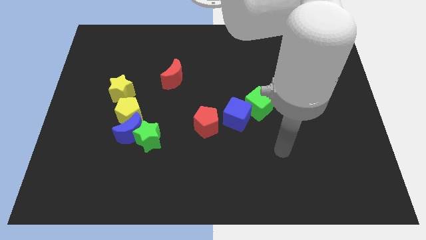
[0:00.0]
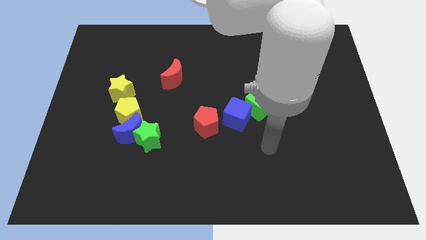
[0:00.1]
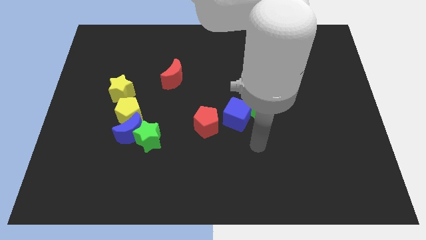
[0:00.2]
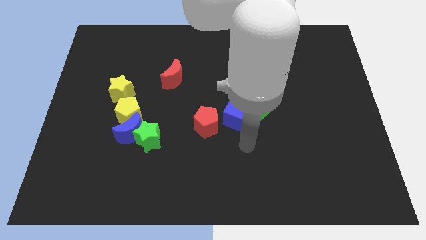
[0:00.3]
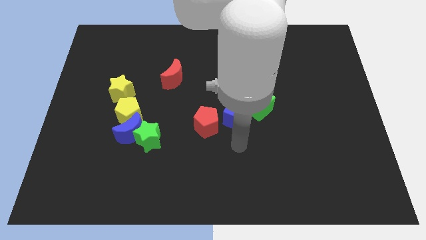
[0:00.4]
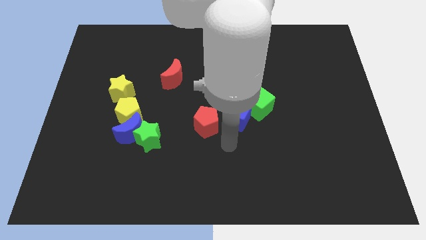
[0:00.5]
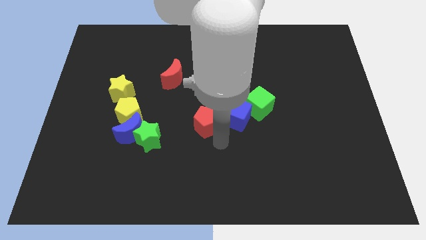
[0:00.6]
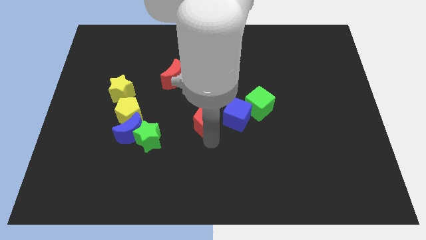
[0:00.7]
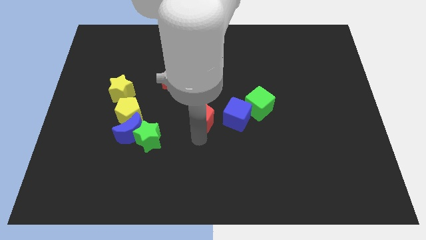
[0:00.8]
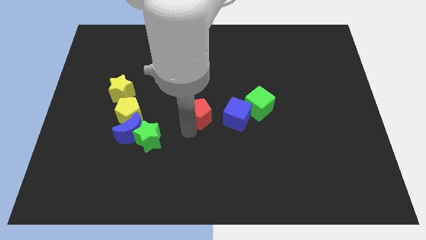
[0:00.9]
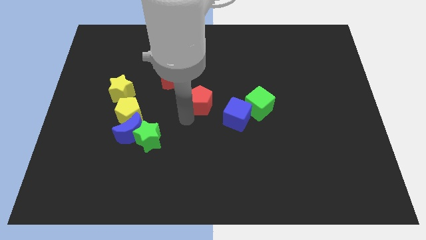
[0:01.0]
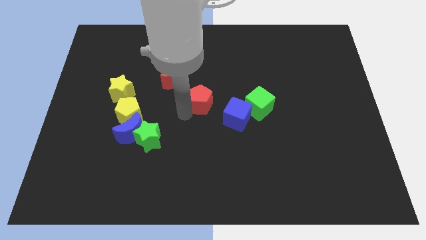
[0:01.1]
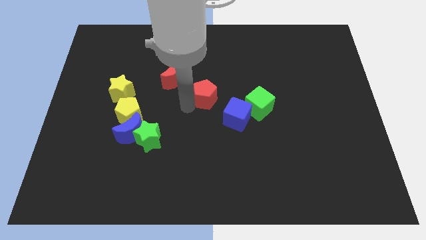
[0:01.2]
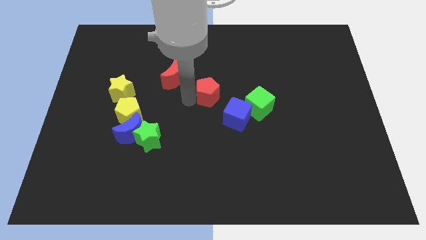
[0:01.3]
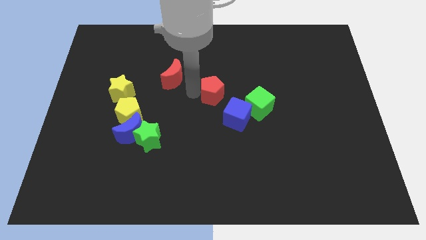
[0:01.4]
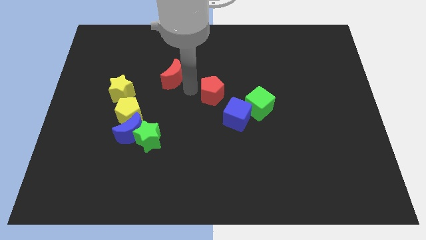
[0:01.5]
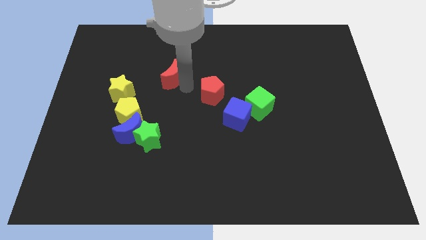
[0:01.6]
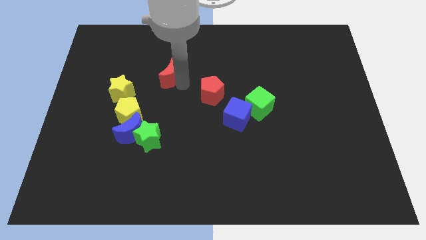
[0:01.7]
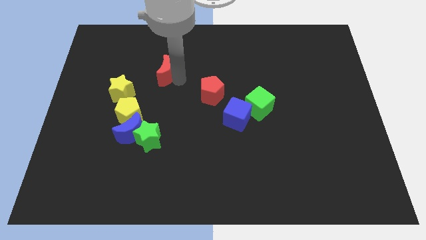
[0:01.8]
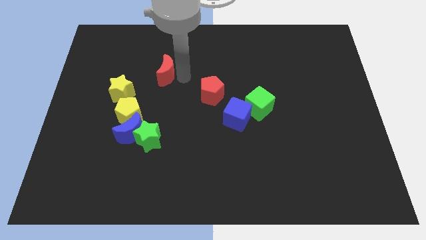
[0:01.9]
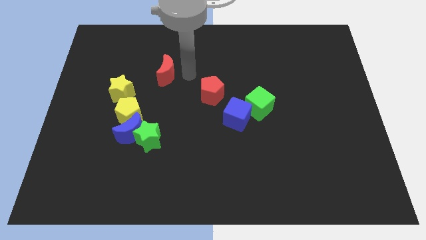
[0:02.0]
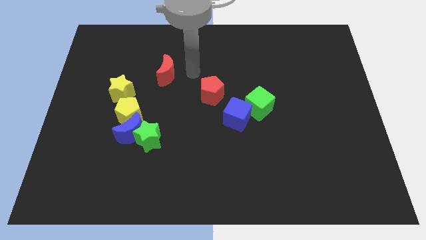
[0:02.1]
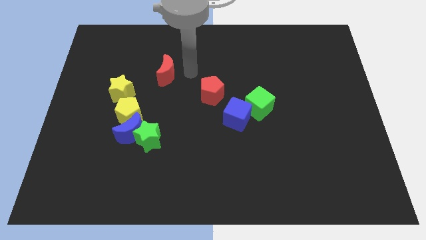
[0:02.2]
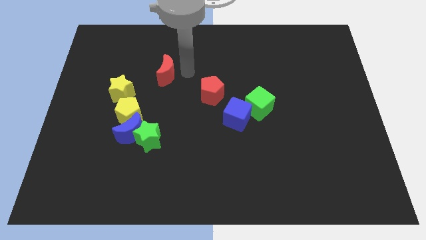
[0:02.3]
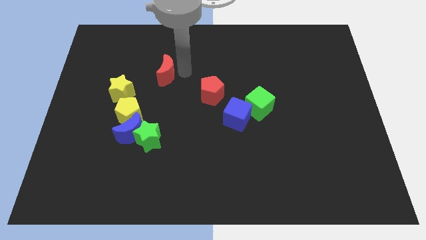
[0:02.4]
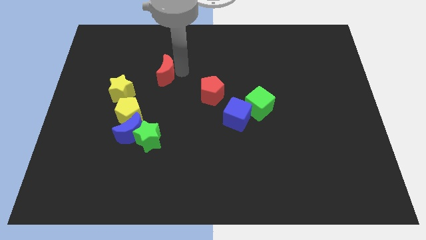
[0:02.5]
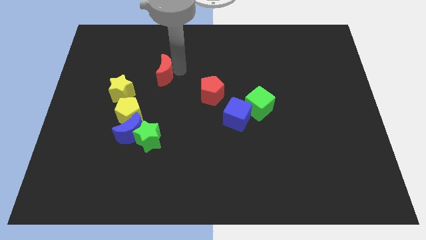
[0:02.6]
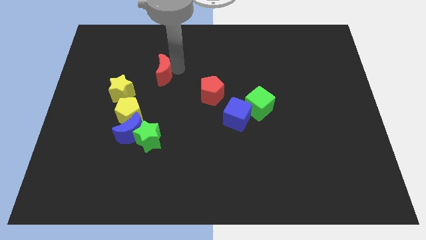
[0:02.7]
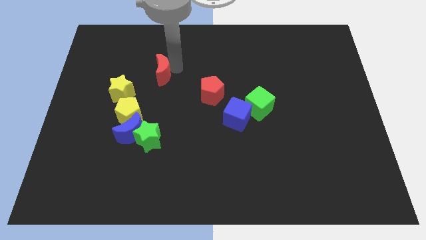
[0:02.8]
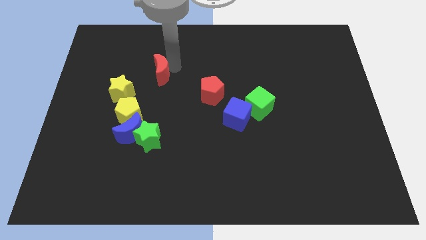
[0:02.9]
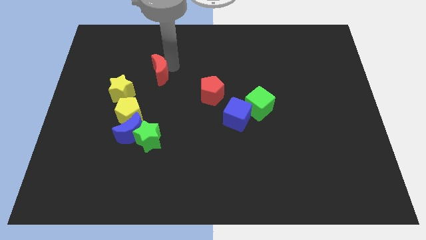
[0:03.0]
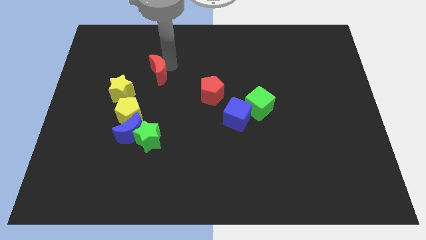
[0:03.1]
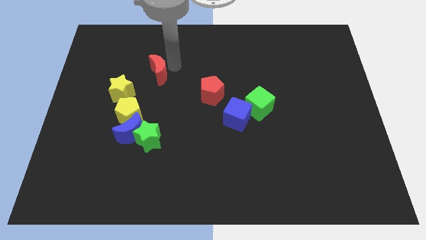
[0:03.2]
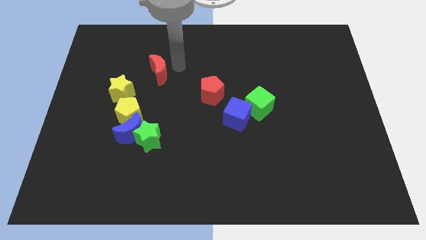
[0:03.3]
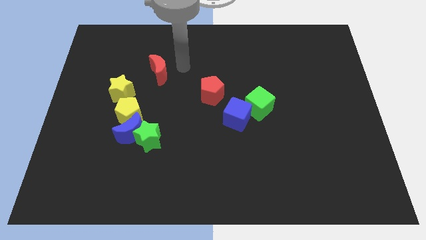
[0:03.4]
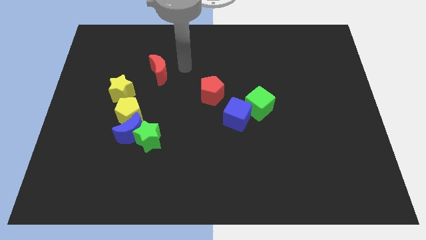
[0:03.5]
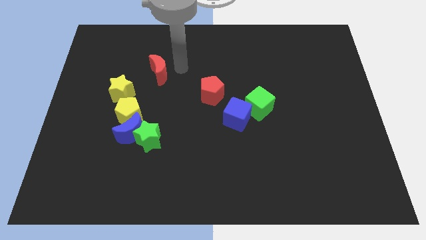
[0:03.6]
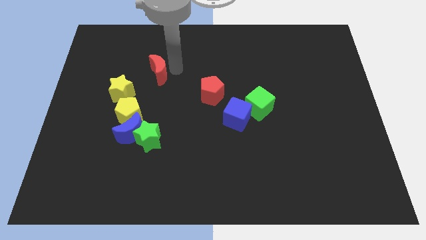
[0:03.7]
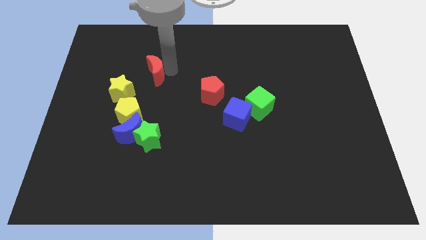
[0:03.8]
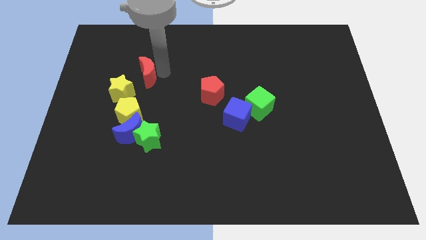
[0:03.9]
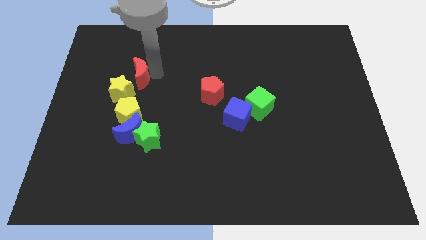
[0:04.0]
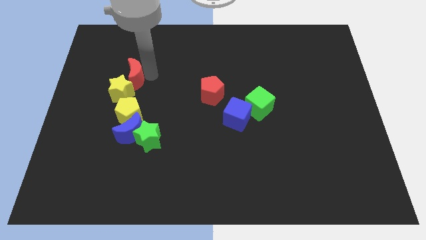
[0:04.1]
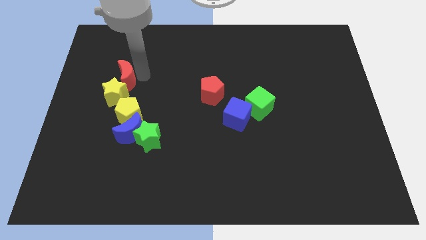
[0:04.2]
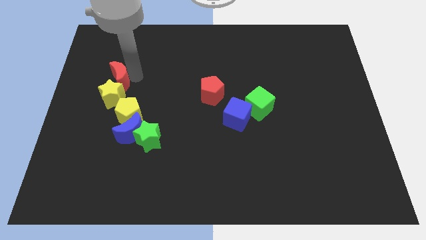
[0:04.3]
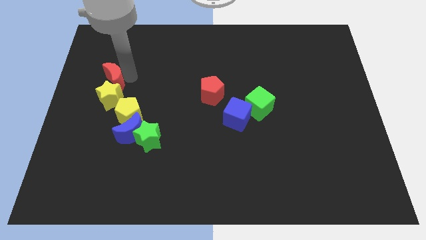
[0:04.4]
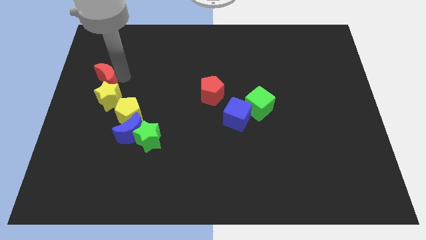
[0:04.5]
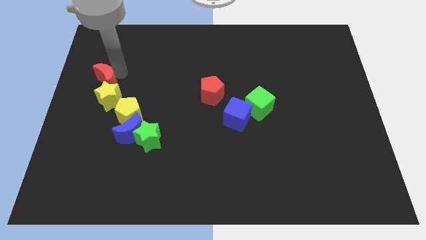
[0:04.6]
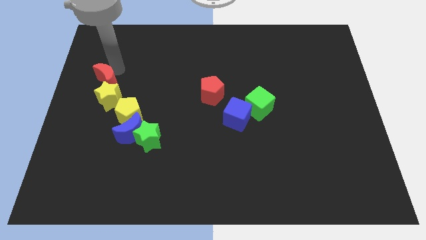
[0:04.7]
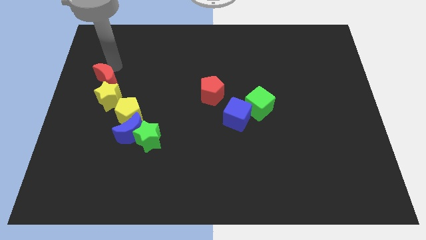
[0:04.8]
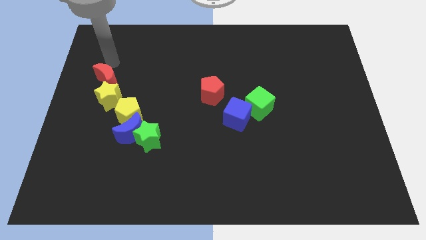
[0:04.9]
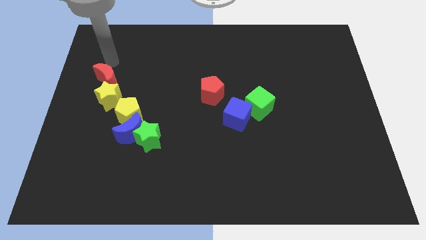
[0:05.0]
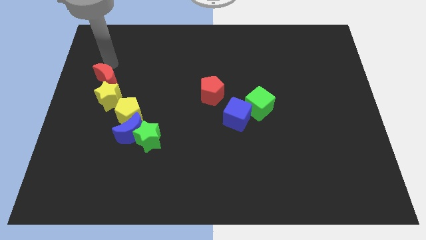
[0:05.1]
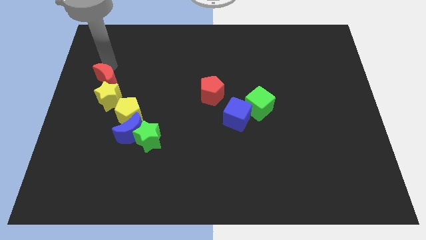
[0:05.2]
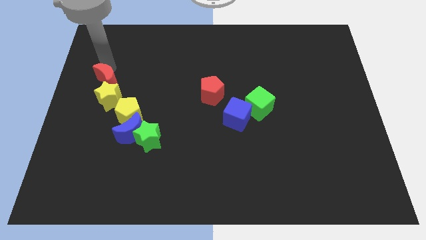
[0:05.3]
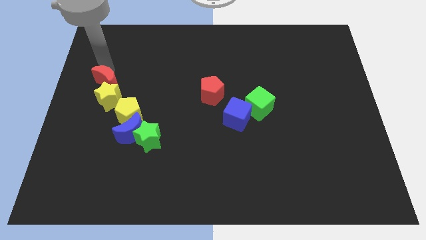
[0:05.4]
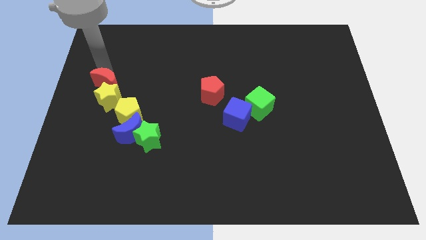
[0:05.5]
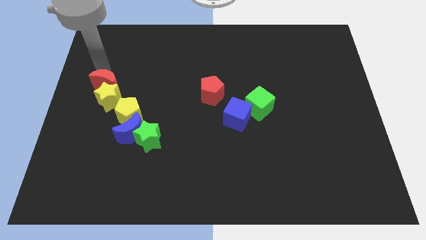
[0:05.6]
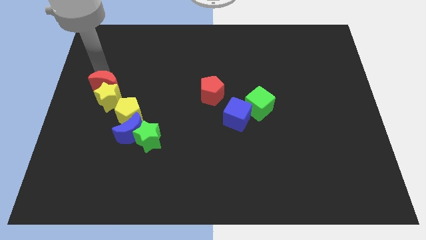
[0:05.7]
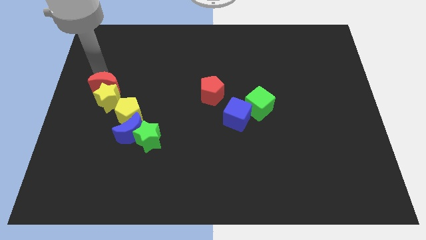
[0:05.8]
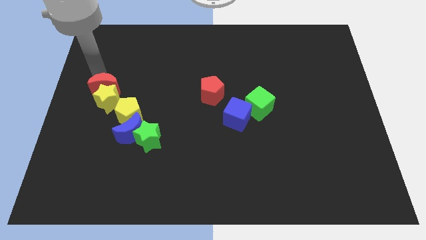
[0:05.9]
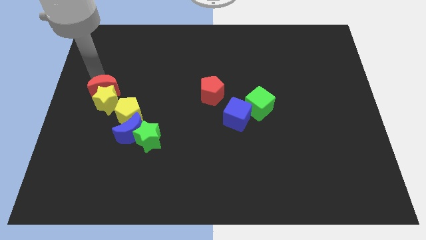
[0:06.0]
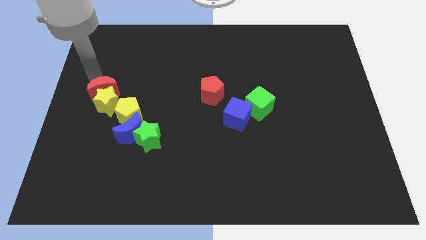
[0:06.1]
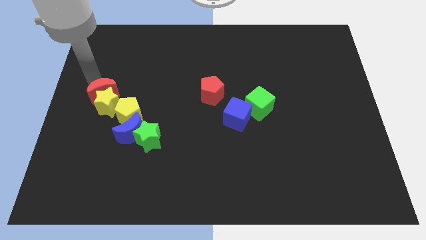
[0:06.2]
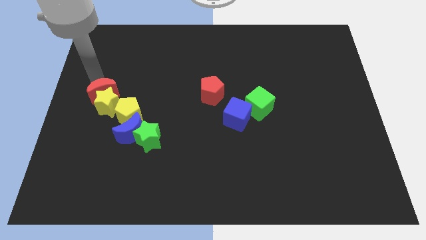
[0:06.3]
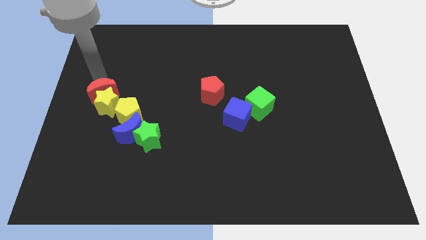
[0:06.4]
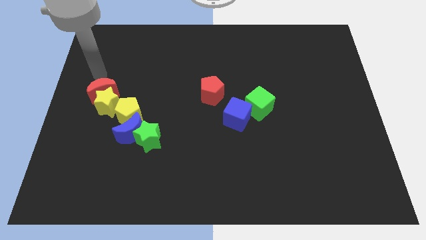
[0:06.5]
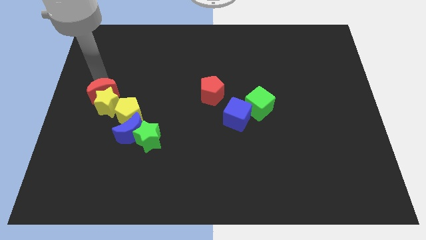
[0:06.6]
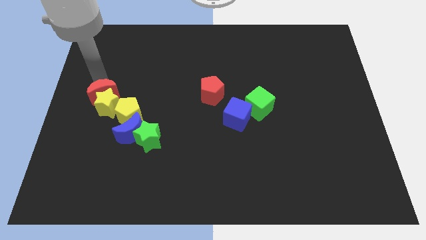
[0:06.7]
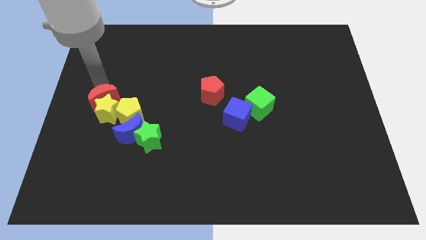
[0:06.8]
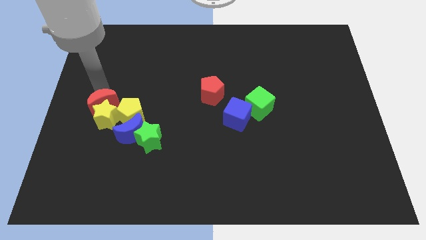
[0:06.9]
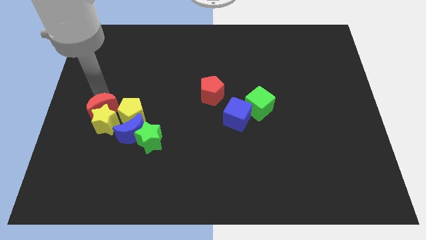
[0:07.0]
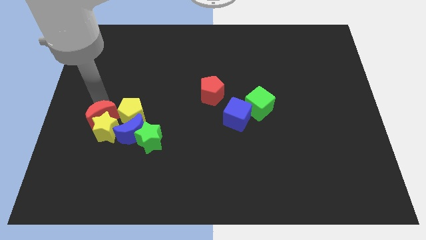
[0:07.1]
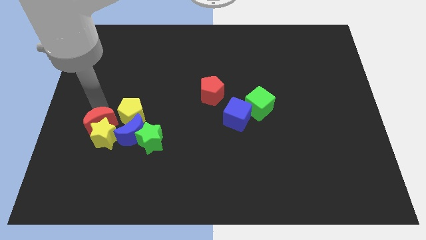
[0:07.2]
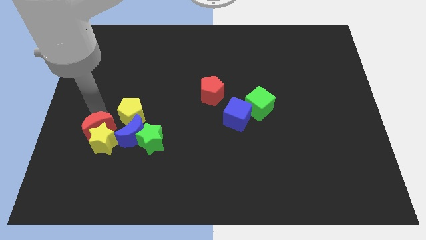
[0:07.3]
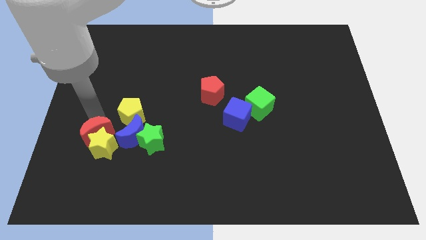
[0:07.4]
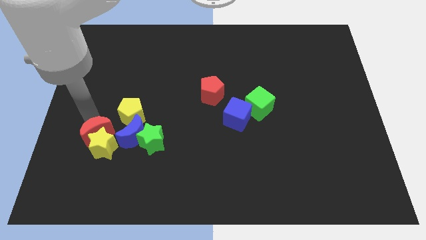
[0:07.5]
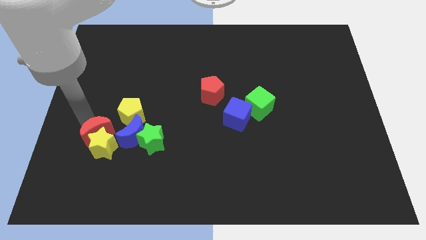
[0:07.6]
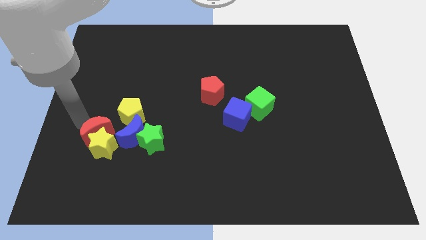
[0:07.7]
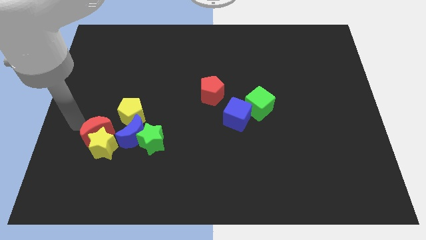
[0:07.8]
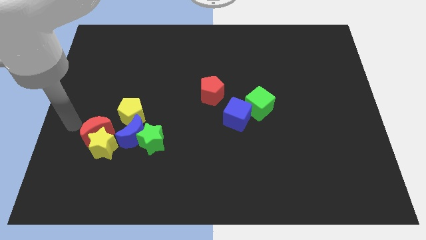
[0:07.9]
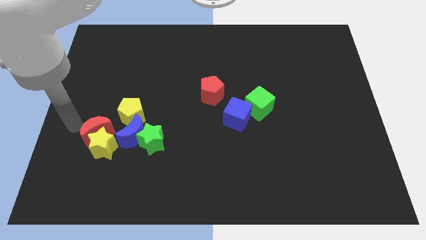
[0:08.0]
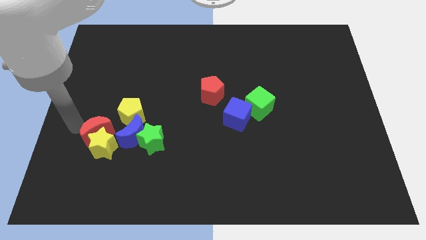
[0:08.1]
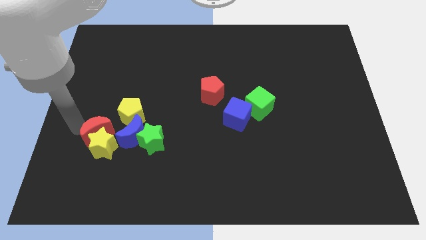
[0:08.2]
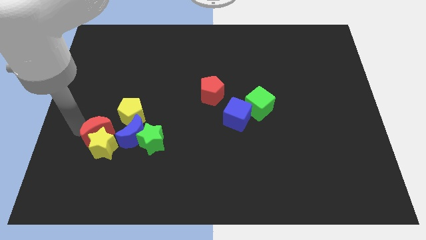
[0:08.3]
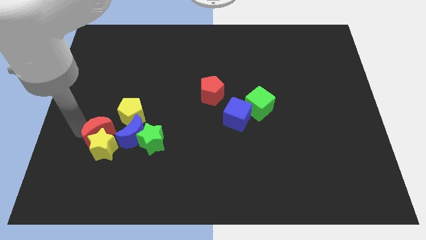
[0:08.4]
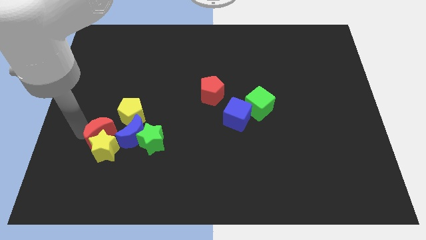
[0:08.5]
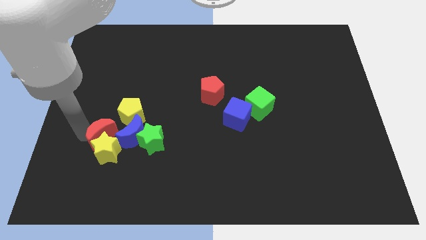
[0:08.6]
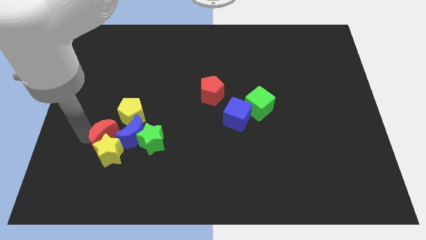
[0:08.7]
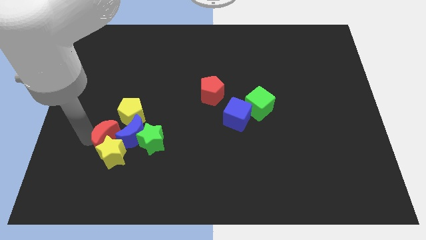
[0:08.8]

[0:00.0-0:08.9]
slide the red moon next to the blue moon
